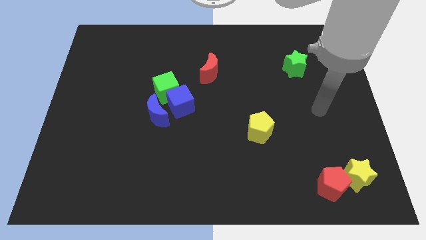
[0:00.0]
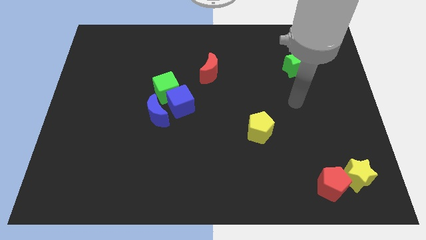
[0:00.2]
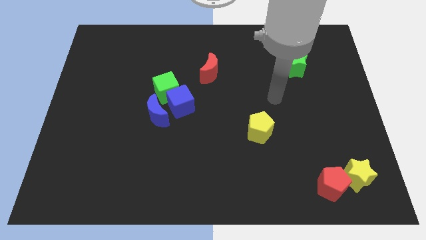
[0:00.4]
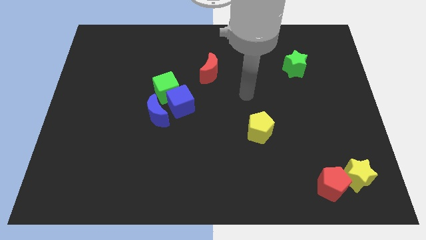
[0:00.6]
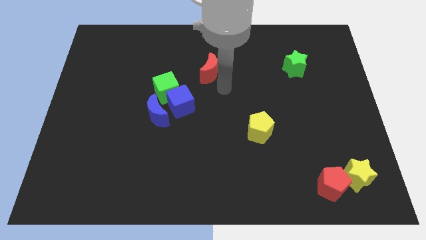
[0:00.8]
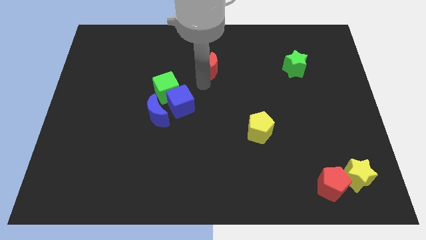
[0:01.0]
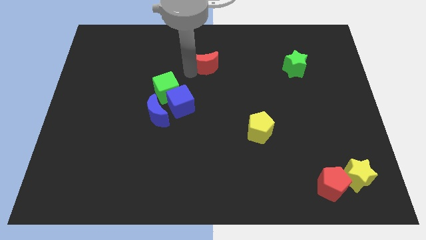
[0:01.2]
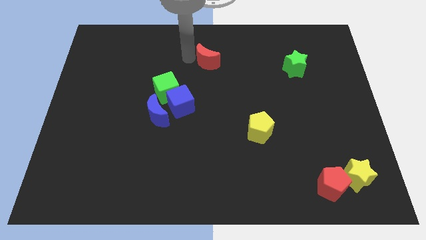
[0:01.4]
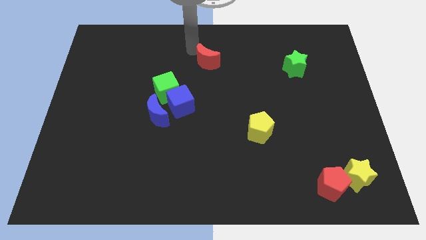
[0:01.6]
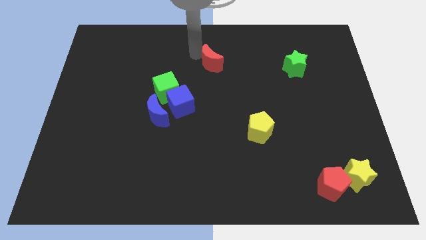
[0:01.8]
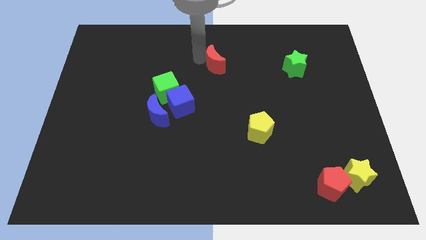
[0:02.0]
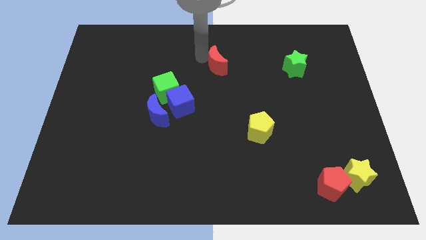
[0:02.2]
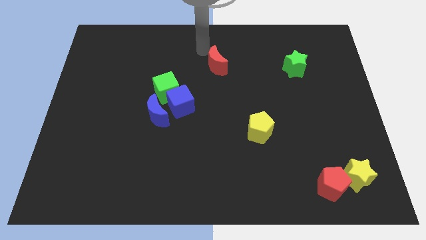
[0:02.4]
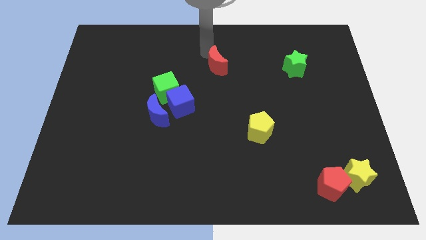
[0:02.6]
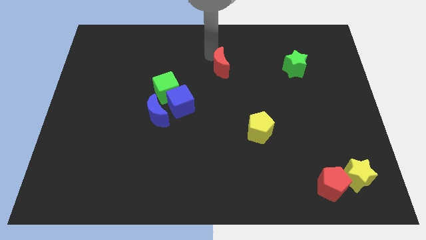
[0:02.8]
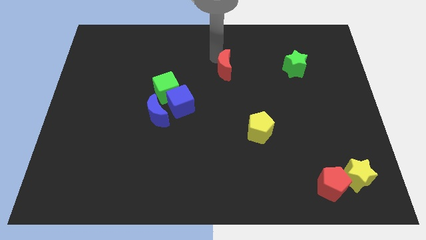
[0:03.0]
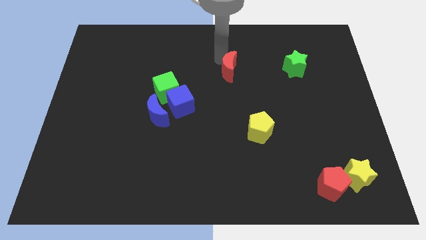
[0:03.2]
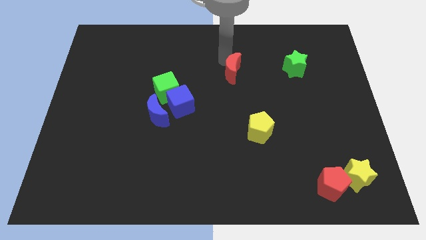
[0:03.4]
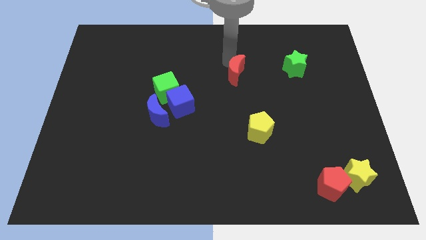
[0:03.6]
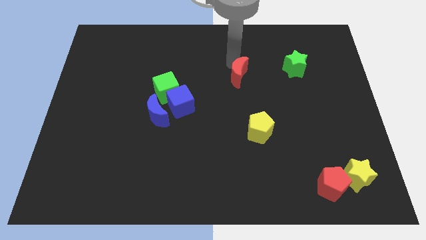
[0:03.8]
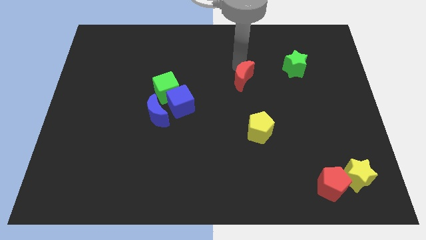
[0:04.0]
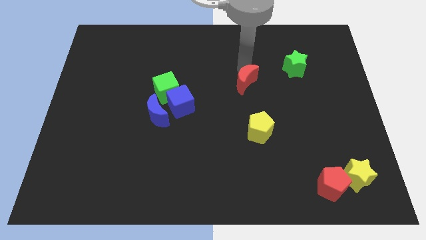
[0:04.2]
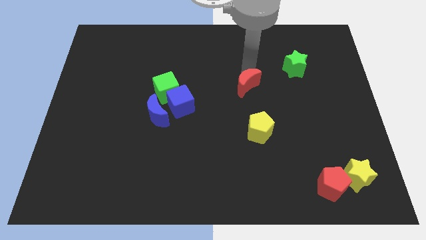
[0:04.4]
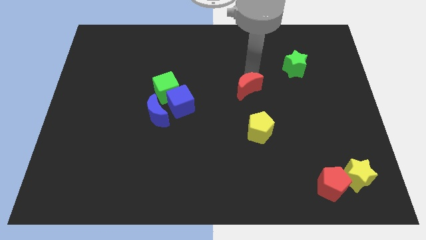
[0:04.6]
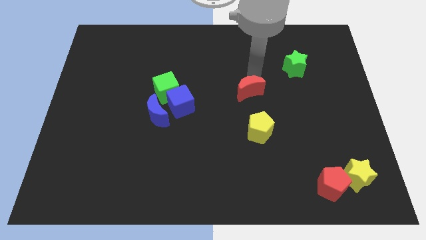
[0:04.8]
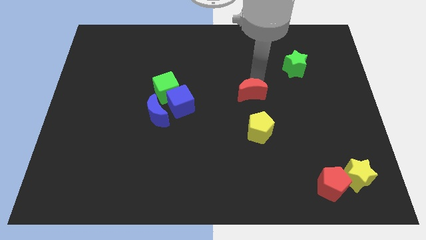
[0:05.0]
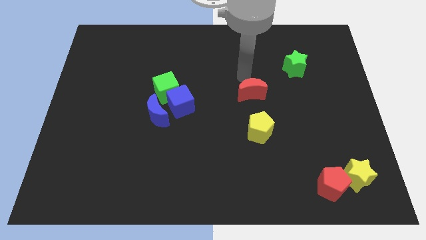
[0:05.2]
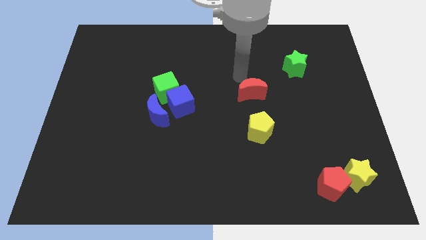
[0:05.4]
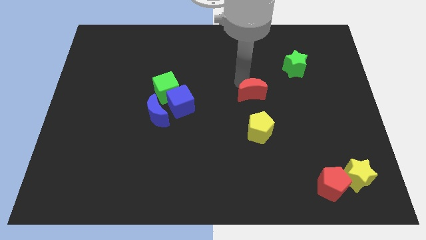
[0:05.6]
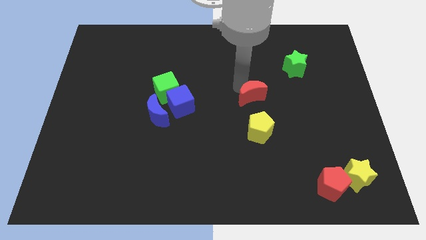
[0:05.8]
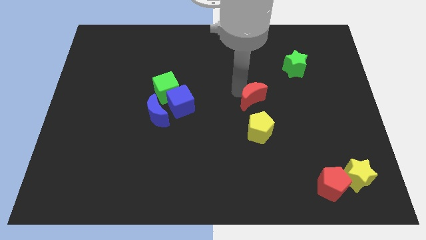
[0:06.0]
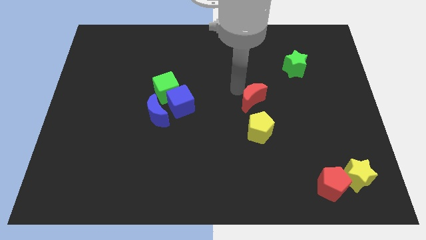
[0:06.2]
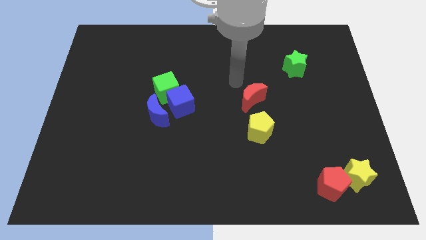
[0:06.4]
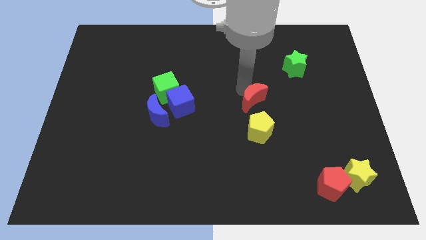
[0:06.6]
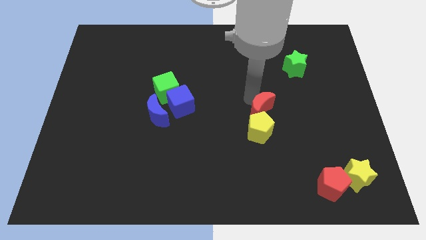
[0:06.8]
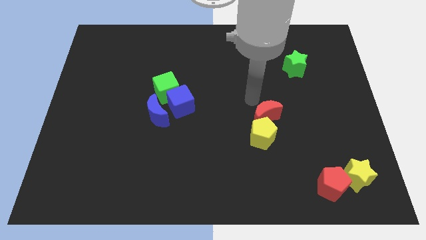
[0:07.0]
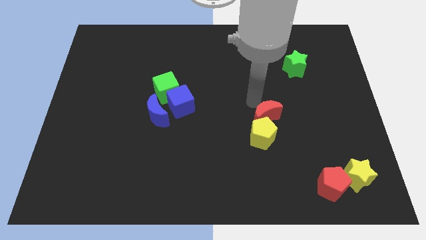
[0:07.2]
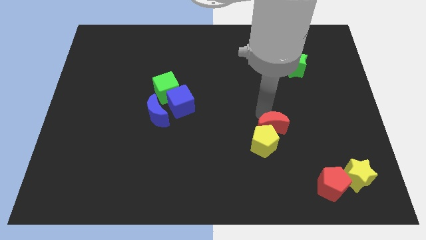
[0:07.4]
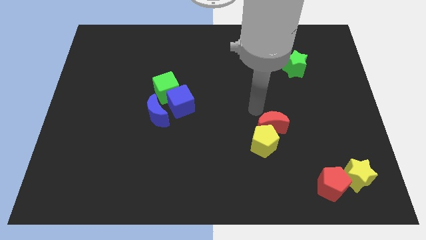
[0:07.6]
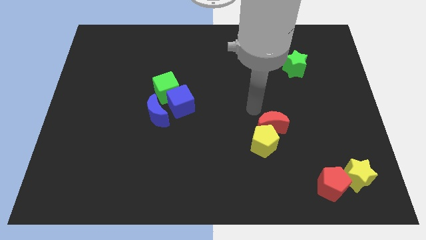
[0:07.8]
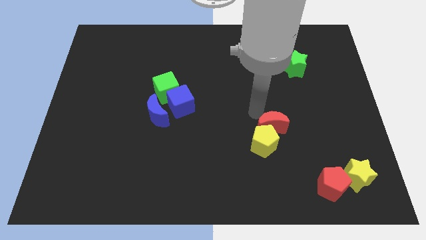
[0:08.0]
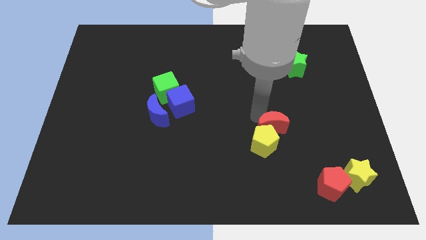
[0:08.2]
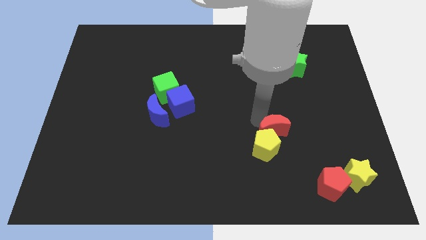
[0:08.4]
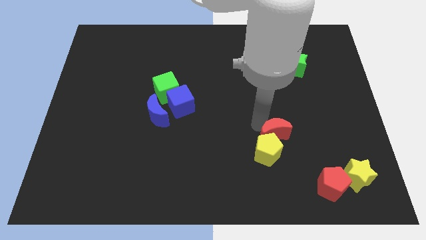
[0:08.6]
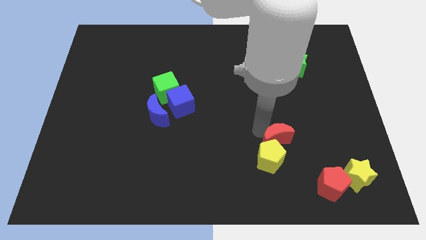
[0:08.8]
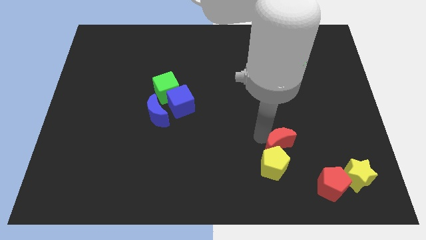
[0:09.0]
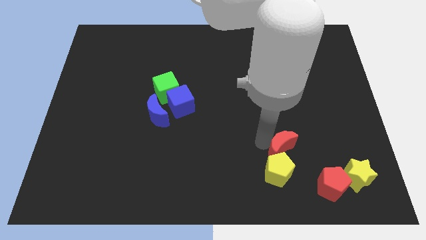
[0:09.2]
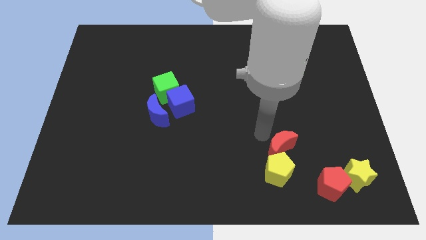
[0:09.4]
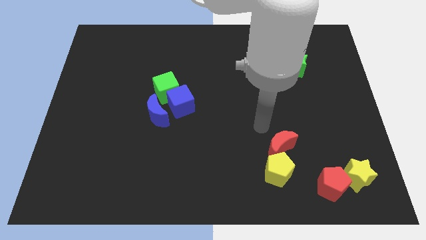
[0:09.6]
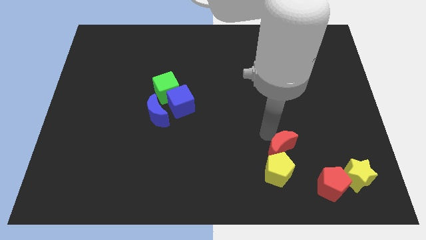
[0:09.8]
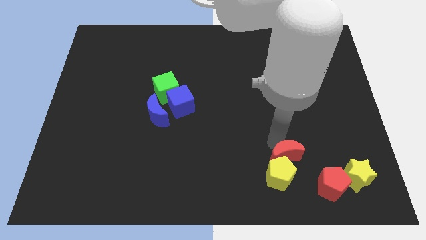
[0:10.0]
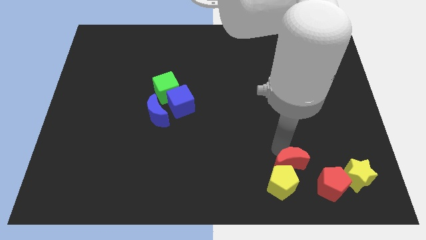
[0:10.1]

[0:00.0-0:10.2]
put the red moon left of the yellow star

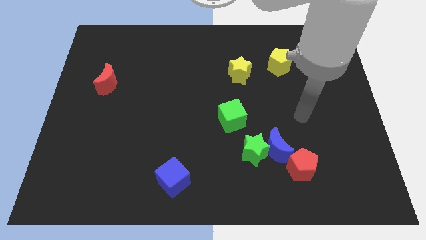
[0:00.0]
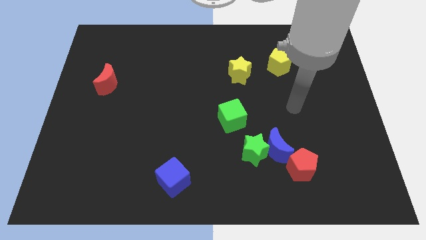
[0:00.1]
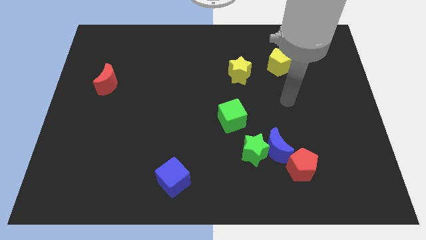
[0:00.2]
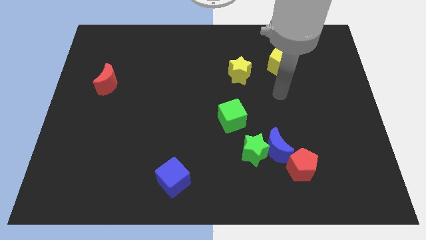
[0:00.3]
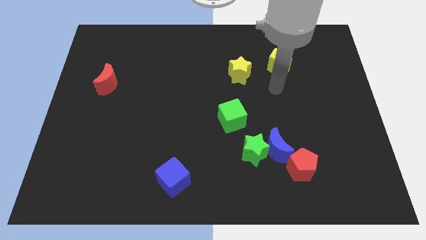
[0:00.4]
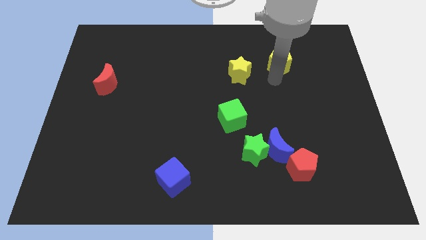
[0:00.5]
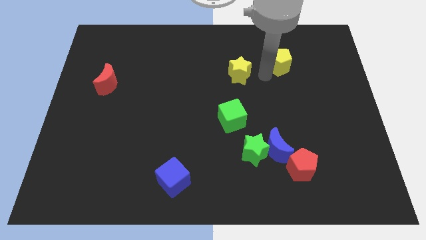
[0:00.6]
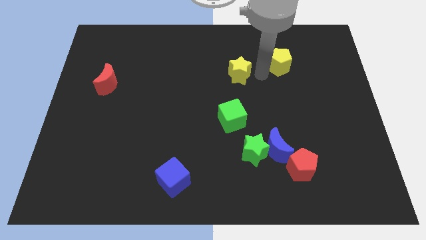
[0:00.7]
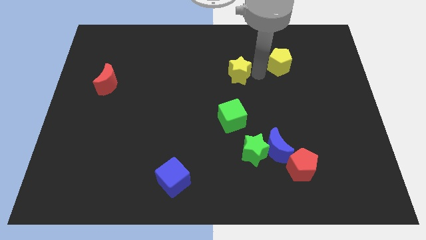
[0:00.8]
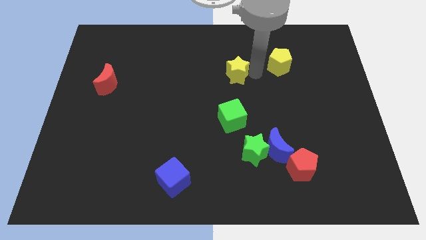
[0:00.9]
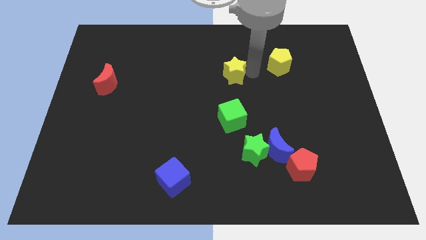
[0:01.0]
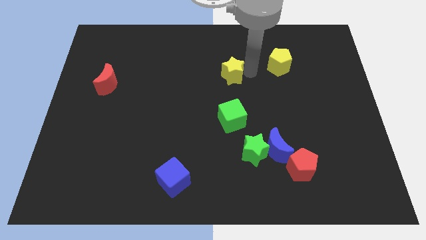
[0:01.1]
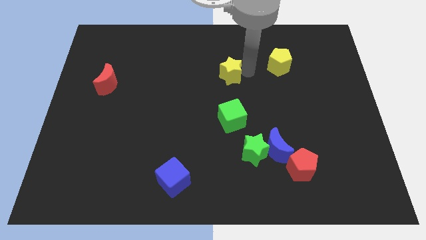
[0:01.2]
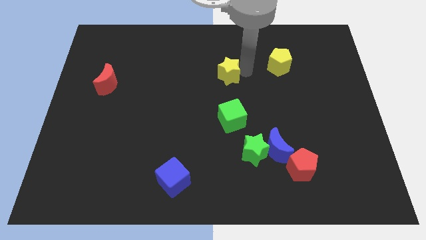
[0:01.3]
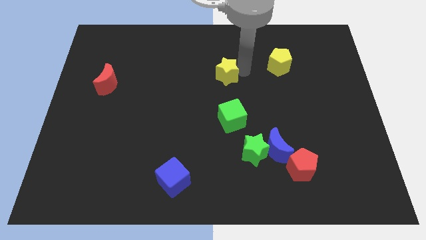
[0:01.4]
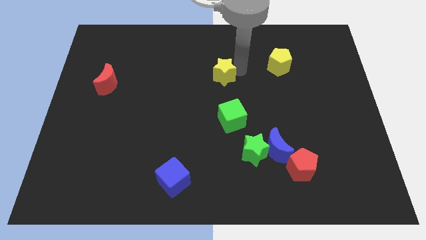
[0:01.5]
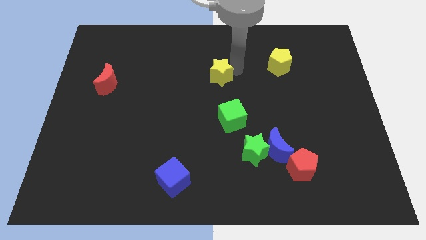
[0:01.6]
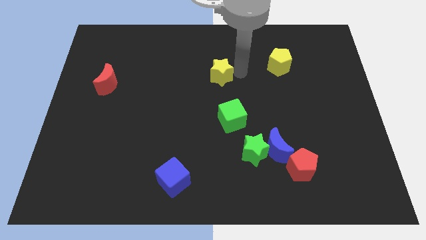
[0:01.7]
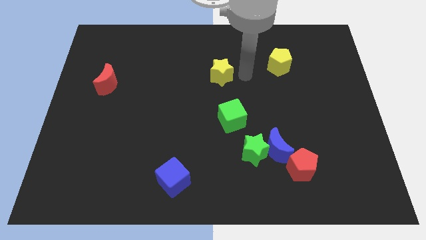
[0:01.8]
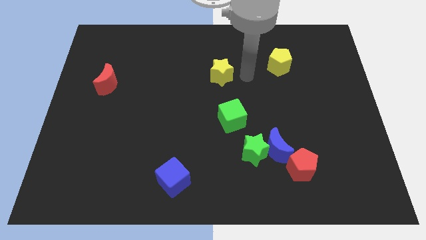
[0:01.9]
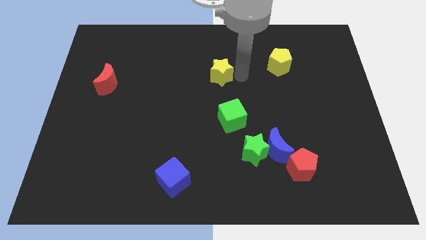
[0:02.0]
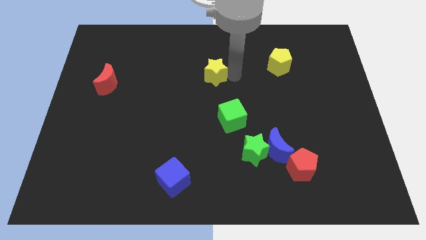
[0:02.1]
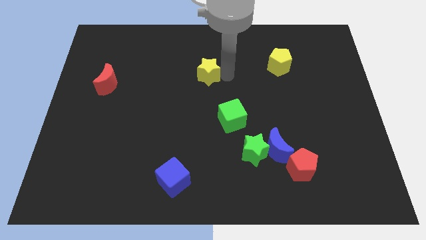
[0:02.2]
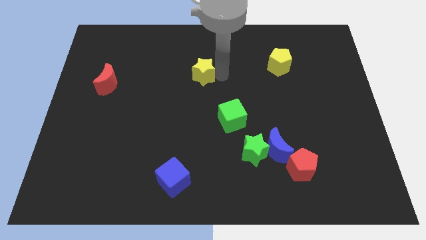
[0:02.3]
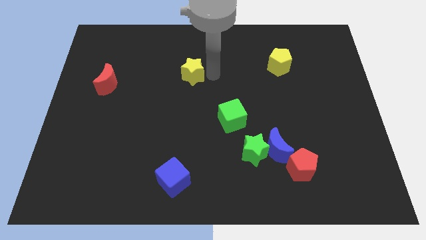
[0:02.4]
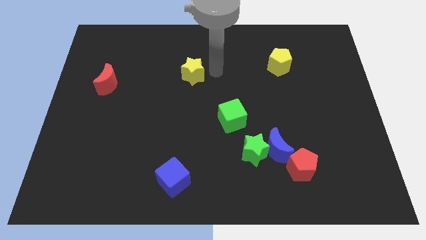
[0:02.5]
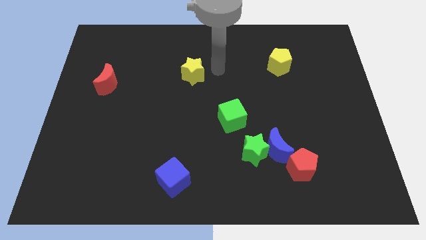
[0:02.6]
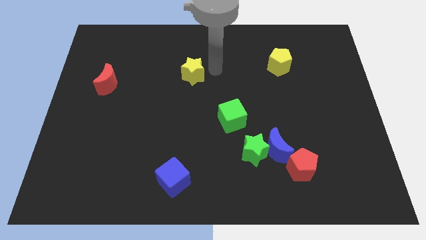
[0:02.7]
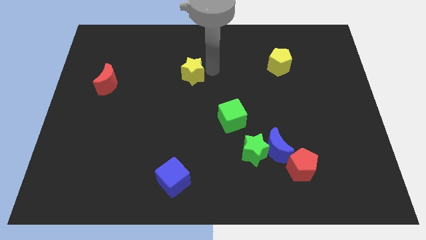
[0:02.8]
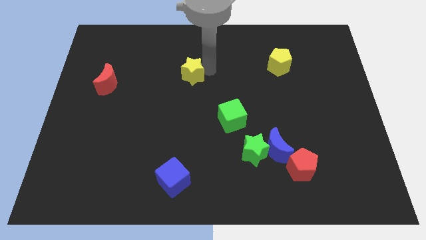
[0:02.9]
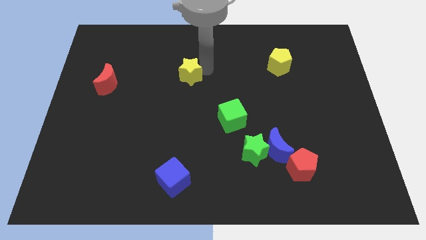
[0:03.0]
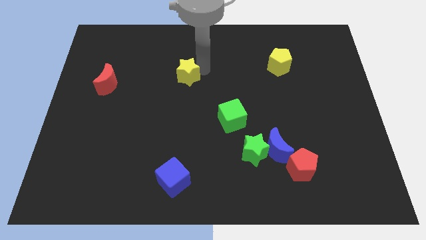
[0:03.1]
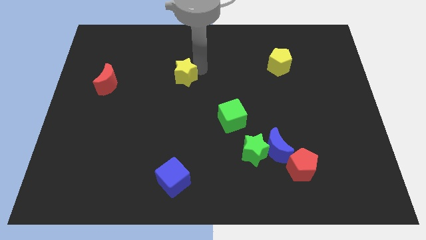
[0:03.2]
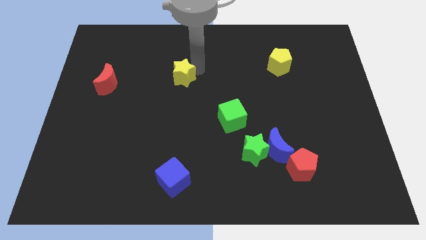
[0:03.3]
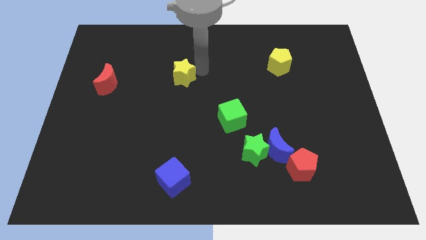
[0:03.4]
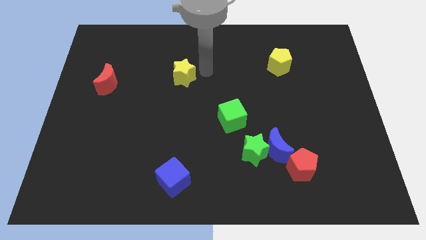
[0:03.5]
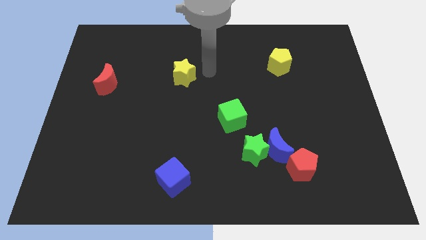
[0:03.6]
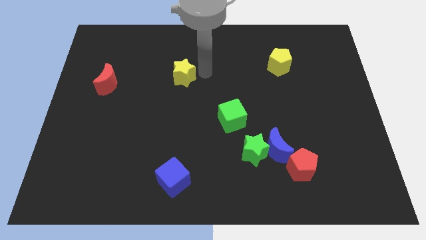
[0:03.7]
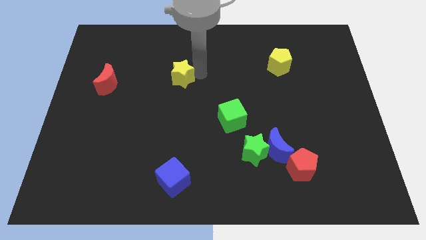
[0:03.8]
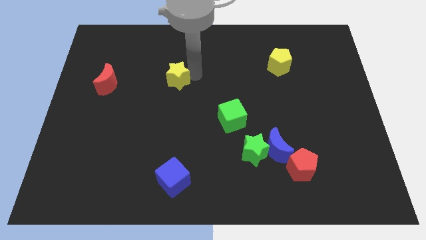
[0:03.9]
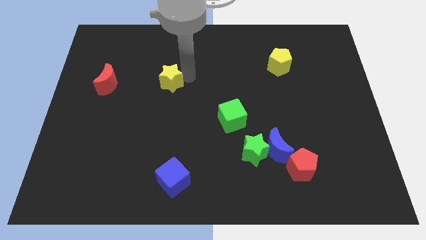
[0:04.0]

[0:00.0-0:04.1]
slide the yellow star to the right side of the red moon
